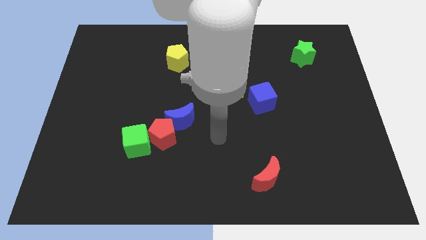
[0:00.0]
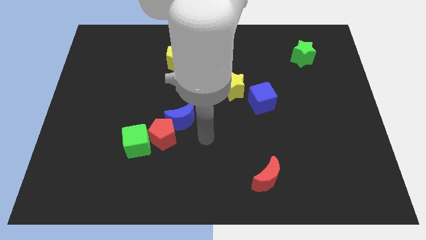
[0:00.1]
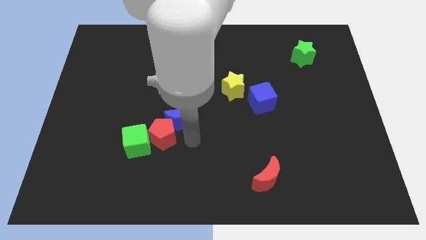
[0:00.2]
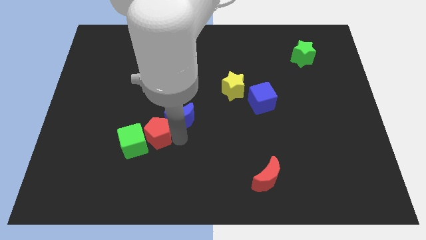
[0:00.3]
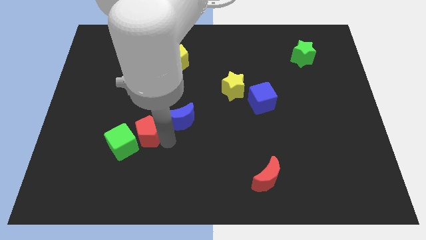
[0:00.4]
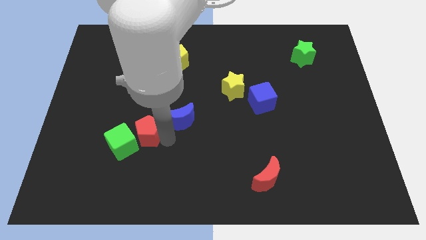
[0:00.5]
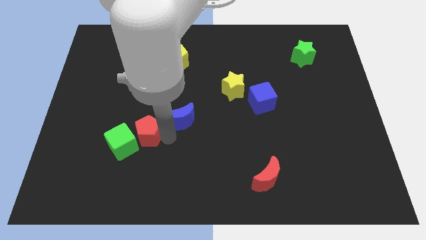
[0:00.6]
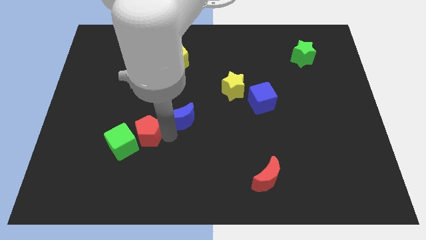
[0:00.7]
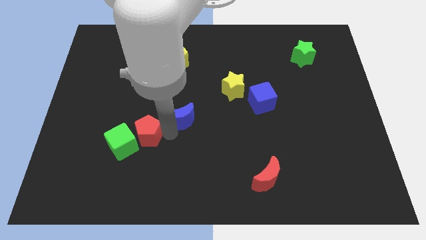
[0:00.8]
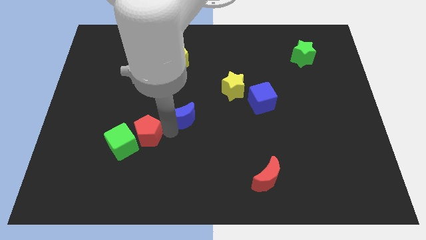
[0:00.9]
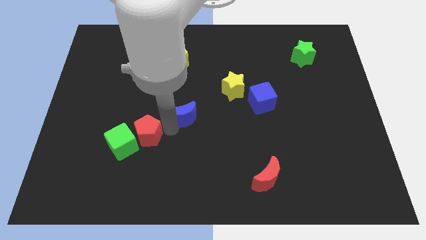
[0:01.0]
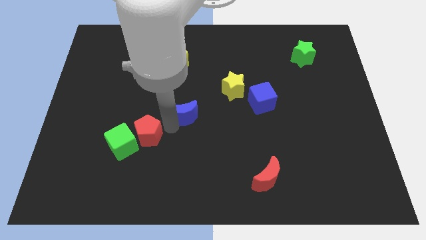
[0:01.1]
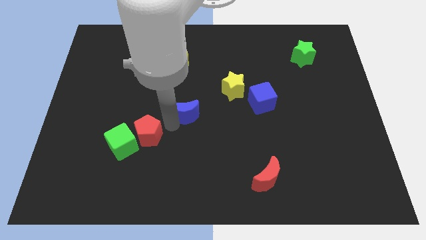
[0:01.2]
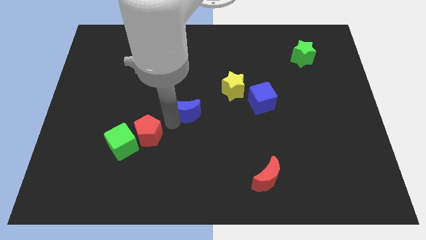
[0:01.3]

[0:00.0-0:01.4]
move the blue moon away from the red pentagon

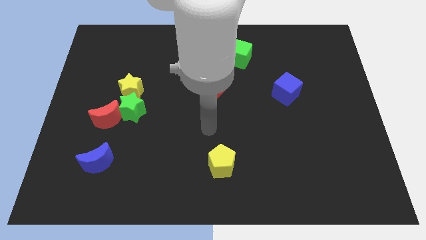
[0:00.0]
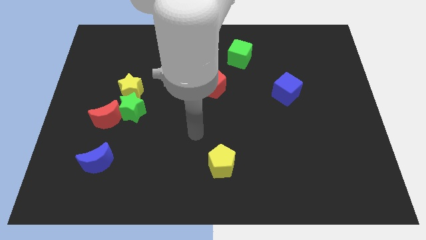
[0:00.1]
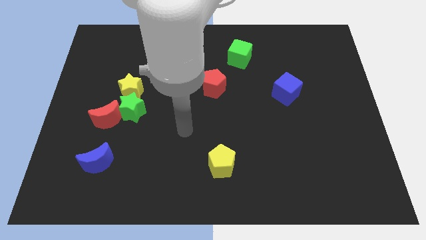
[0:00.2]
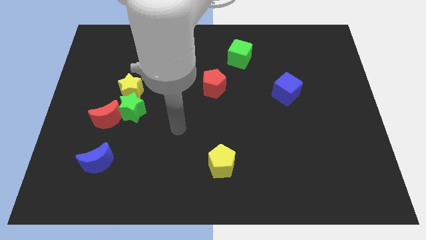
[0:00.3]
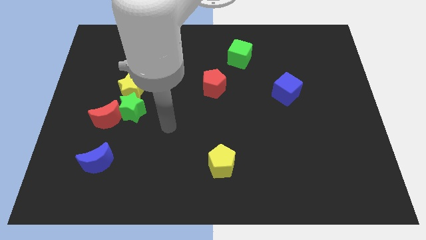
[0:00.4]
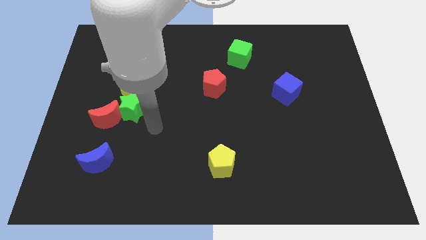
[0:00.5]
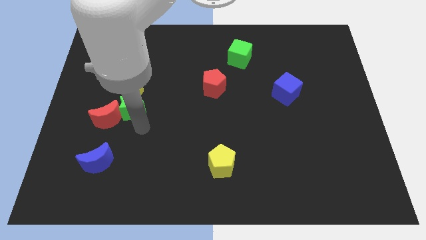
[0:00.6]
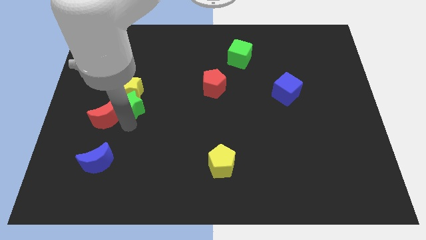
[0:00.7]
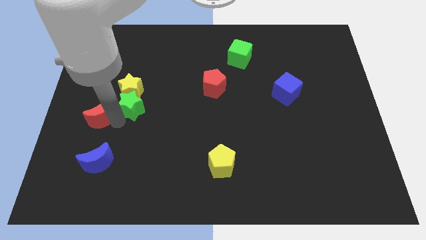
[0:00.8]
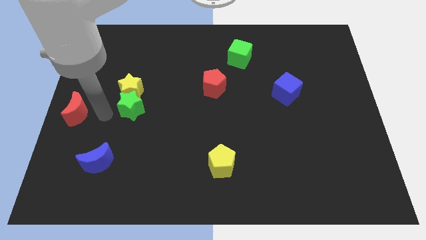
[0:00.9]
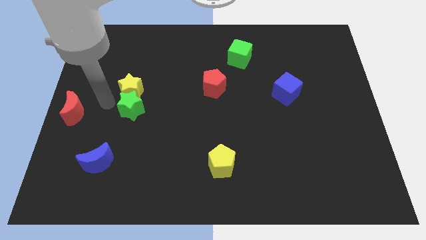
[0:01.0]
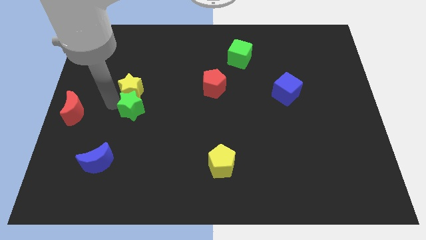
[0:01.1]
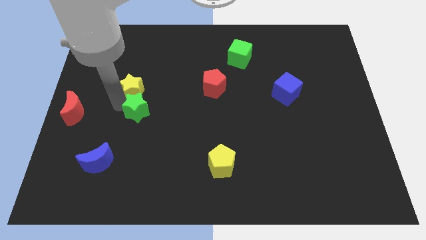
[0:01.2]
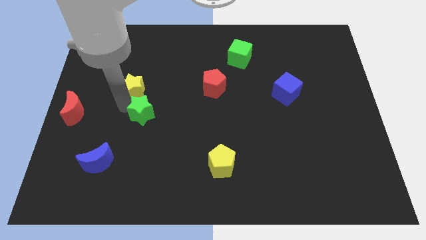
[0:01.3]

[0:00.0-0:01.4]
separate the green star from the yellow star and red moon

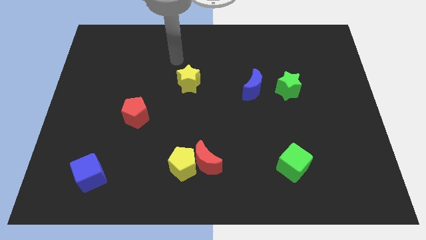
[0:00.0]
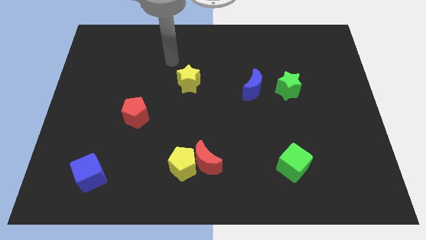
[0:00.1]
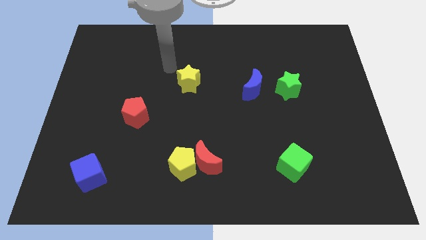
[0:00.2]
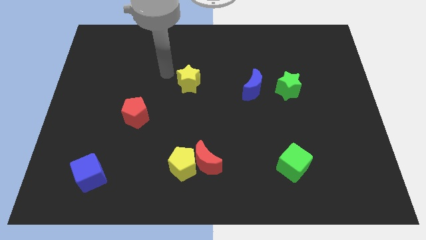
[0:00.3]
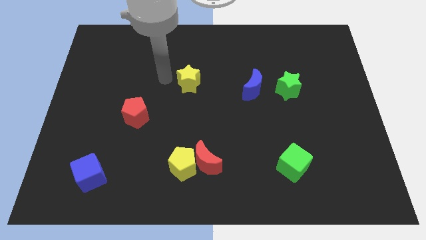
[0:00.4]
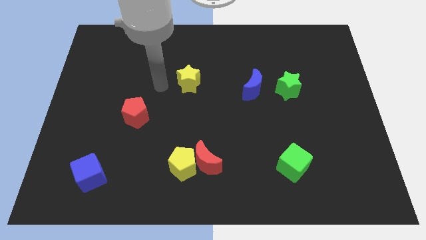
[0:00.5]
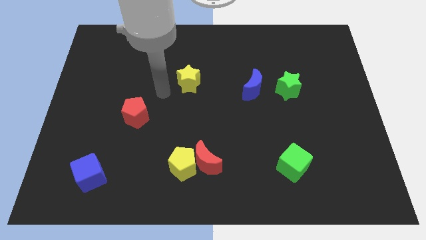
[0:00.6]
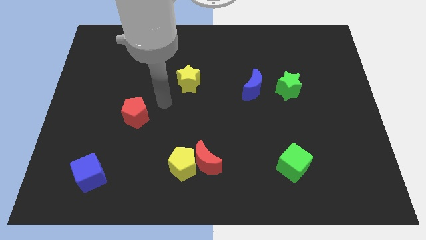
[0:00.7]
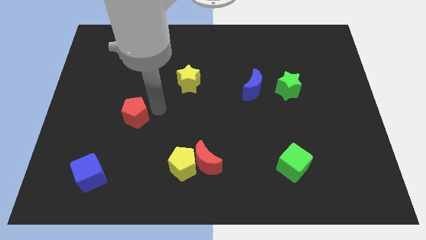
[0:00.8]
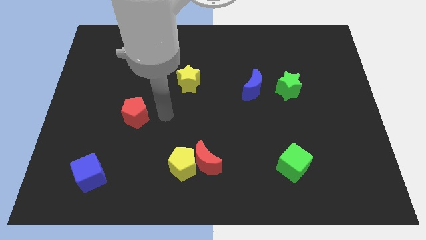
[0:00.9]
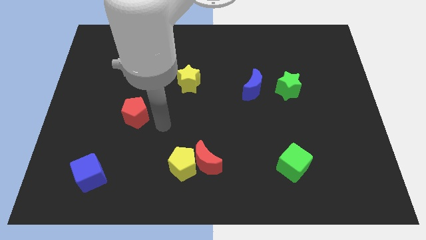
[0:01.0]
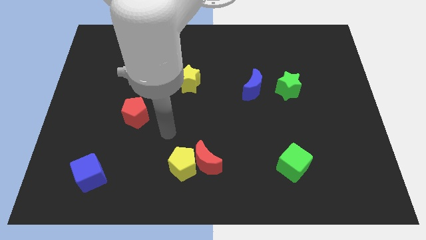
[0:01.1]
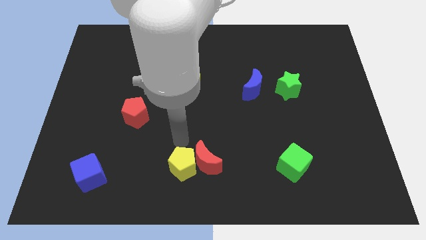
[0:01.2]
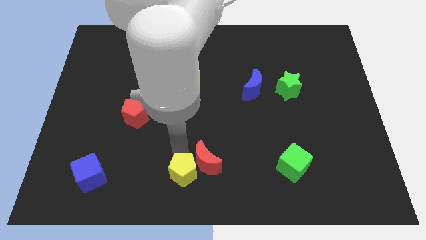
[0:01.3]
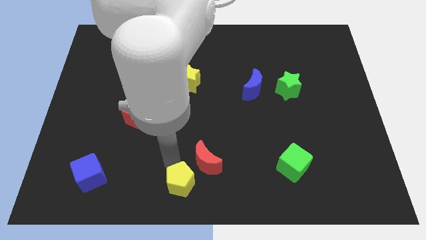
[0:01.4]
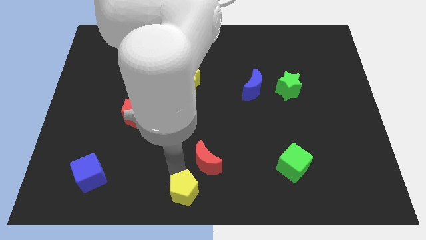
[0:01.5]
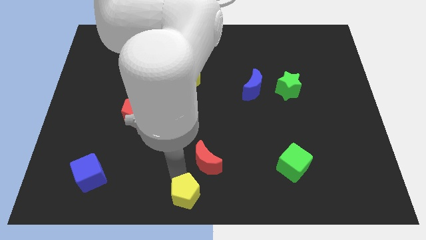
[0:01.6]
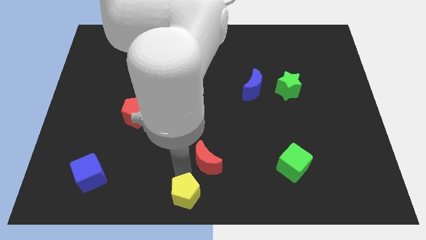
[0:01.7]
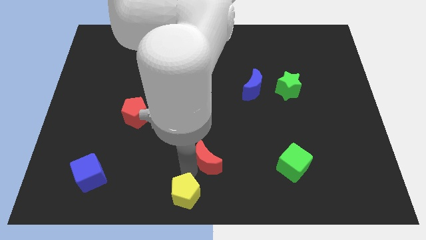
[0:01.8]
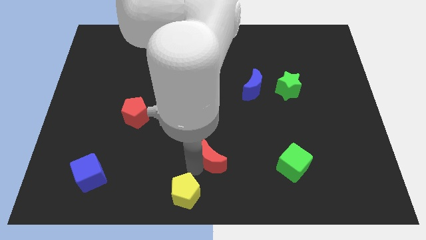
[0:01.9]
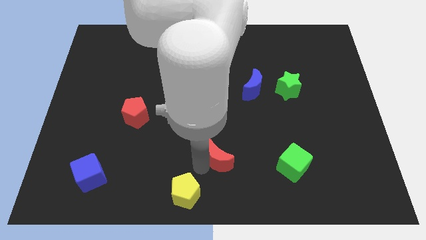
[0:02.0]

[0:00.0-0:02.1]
pull the red moon apart from the yellow pentagon

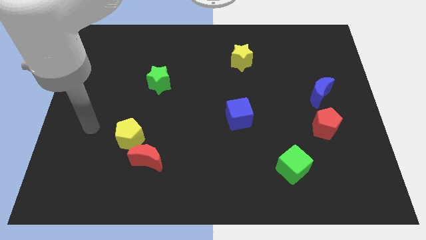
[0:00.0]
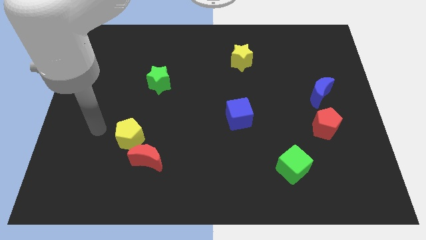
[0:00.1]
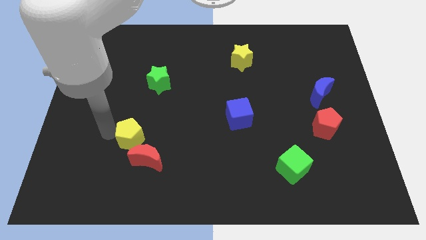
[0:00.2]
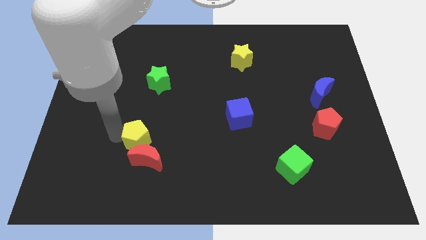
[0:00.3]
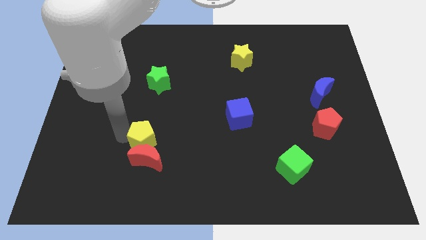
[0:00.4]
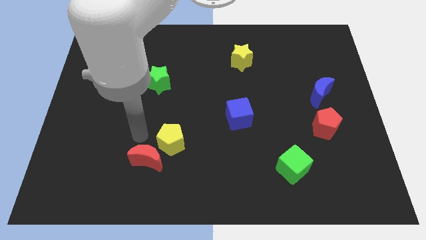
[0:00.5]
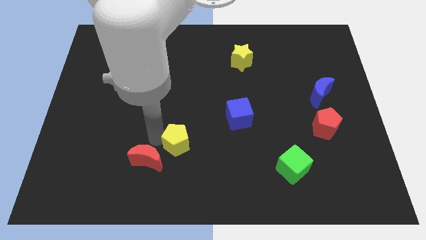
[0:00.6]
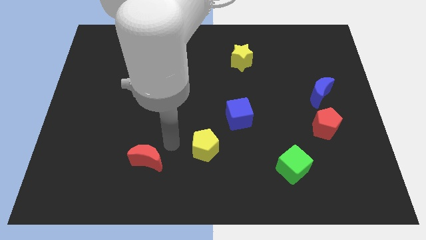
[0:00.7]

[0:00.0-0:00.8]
separate the red moon from the yellow pentagon

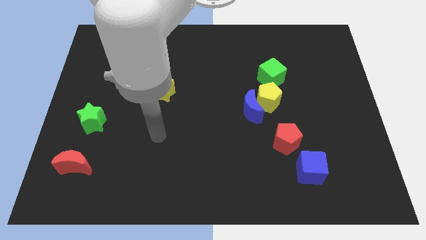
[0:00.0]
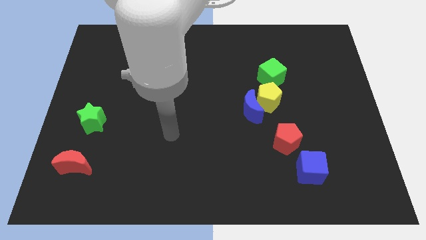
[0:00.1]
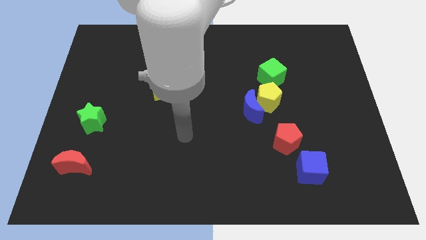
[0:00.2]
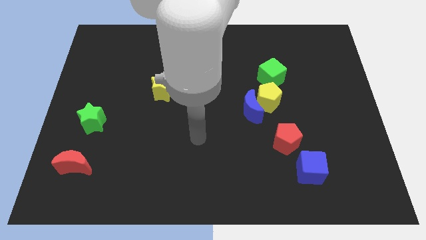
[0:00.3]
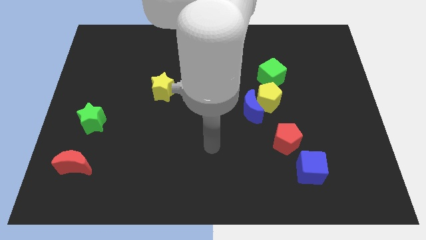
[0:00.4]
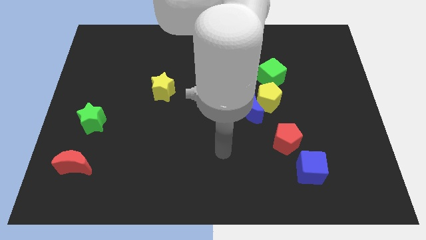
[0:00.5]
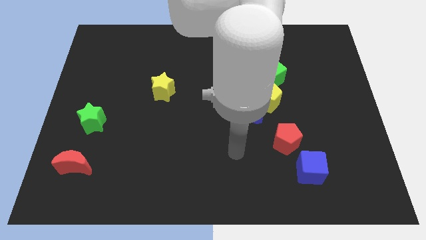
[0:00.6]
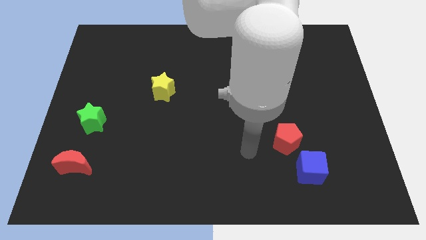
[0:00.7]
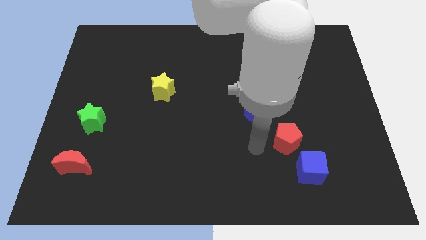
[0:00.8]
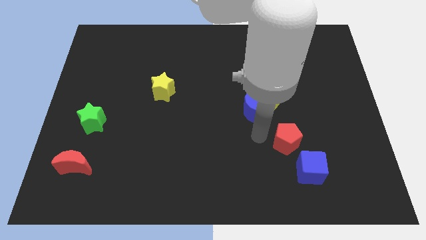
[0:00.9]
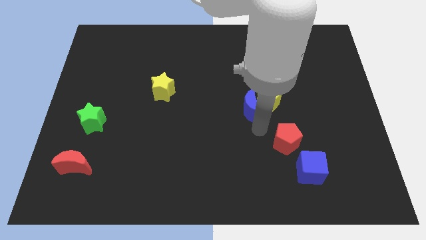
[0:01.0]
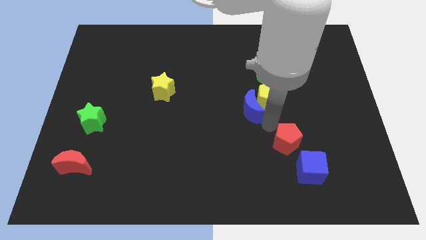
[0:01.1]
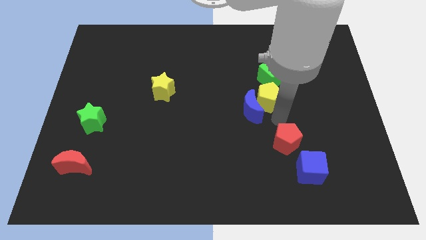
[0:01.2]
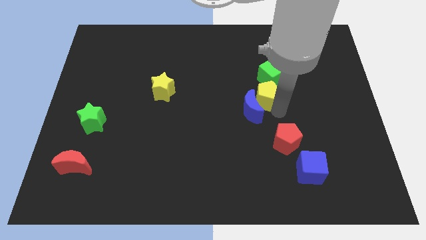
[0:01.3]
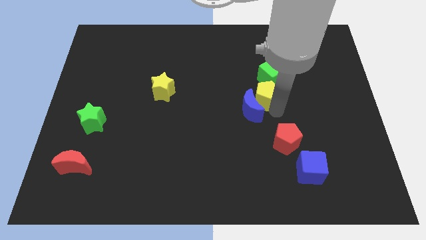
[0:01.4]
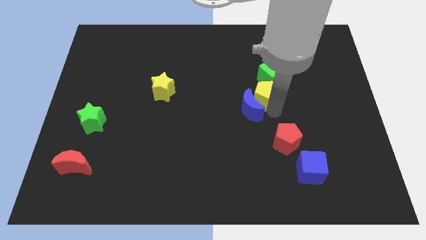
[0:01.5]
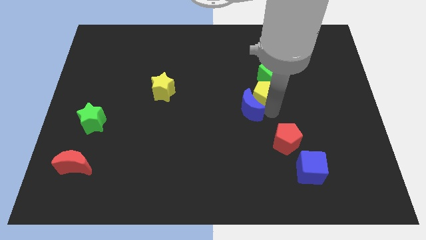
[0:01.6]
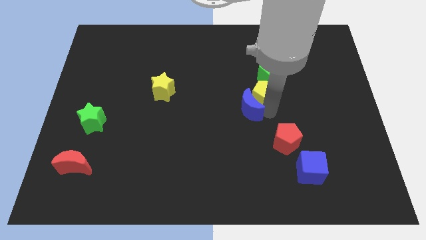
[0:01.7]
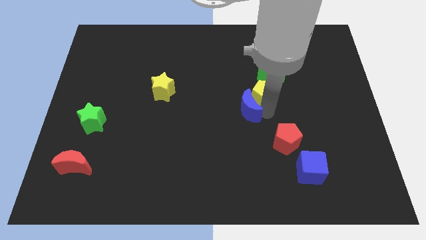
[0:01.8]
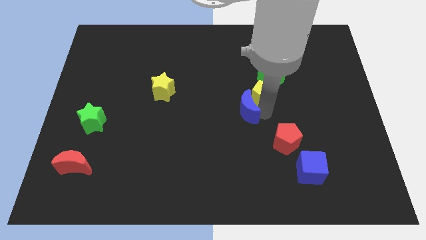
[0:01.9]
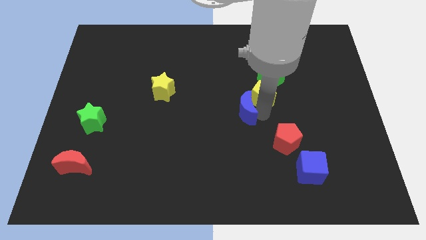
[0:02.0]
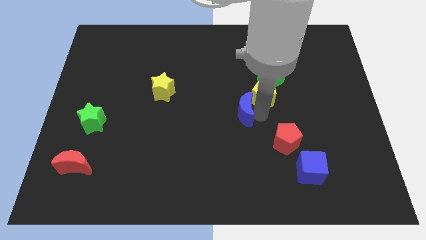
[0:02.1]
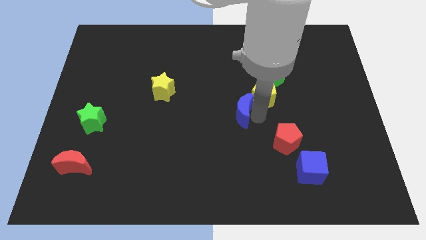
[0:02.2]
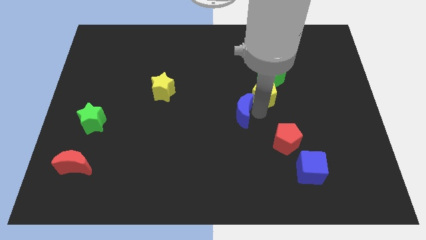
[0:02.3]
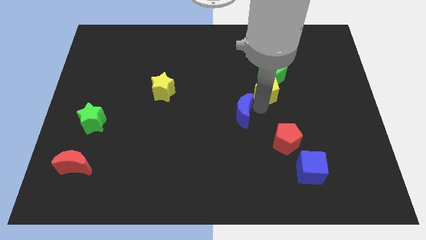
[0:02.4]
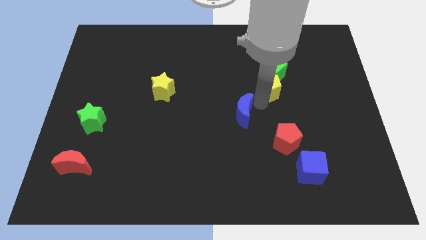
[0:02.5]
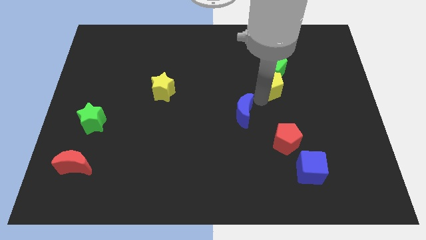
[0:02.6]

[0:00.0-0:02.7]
pull the blue moon apart from the yellow pentagon

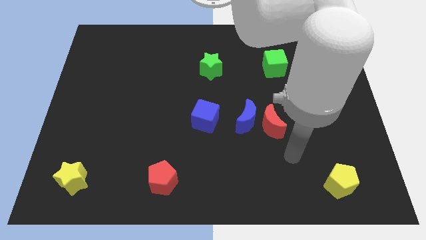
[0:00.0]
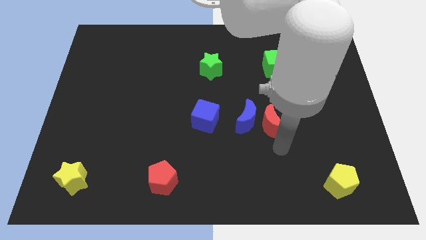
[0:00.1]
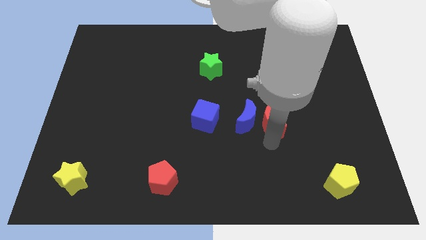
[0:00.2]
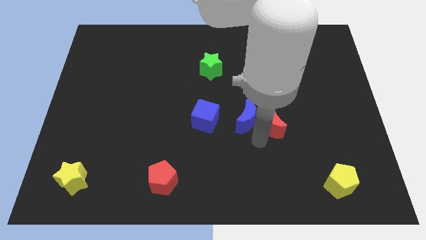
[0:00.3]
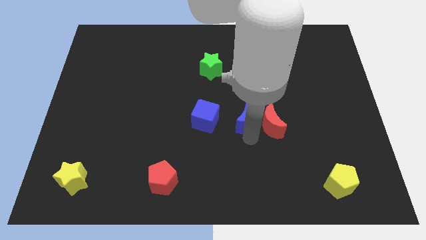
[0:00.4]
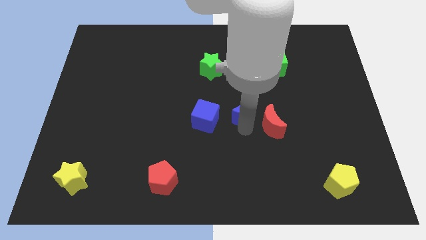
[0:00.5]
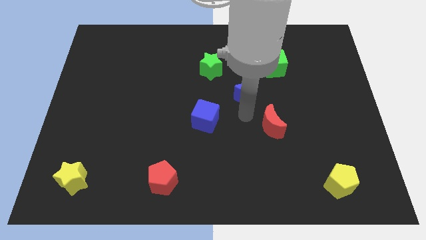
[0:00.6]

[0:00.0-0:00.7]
separate the red moon from the blue moon
